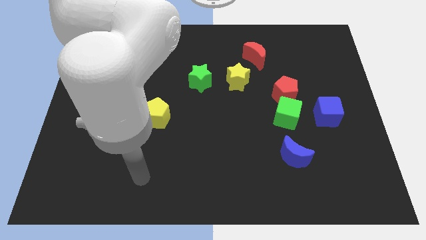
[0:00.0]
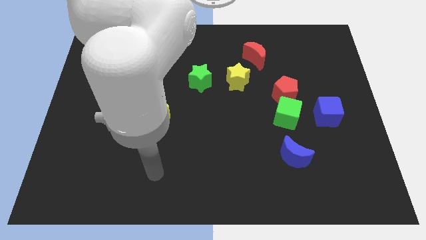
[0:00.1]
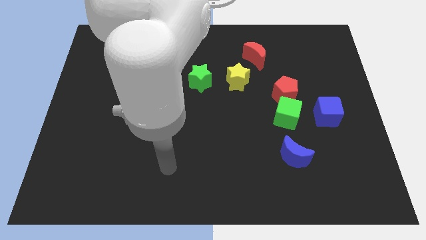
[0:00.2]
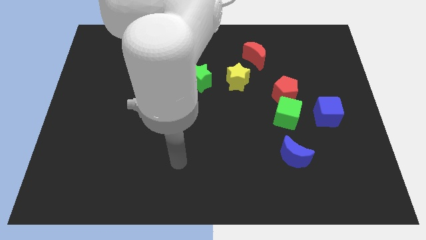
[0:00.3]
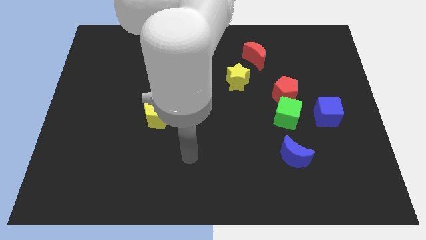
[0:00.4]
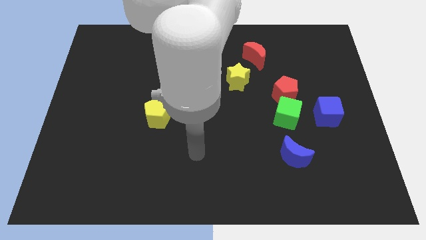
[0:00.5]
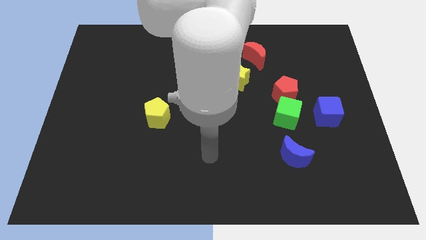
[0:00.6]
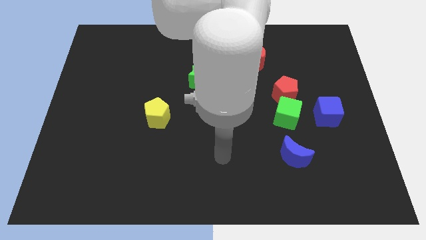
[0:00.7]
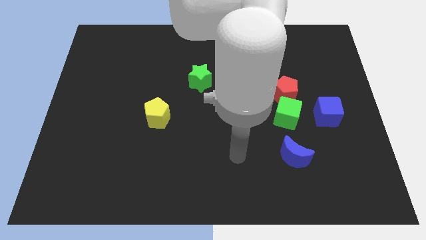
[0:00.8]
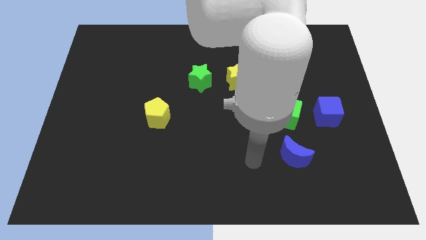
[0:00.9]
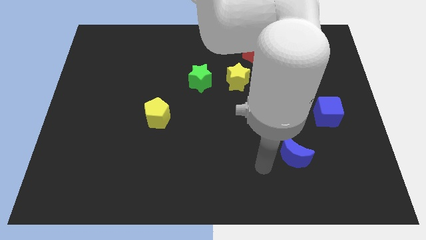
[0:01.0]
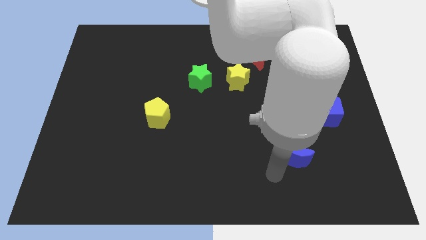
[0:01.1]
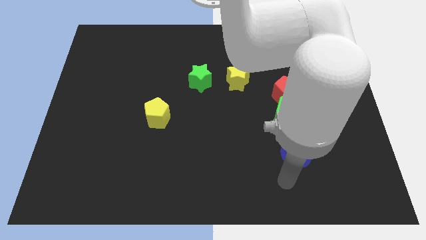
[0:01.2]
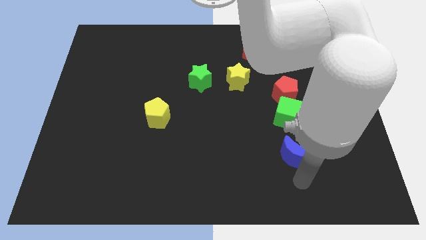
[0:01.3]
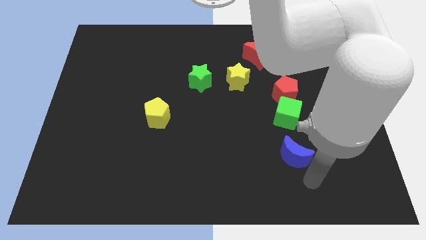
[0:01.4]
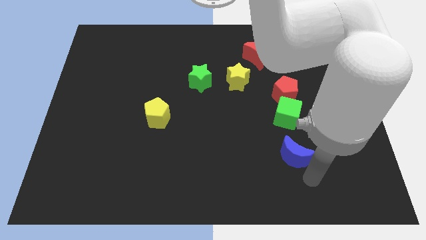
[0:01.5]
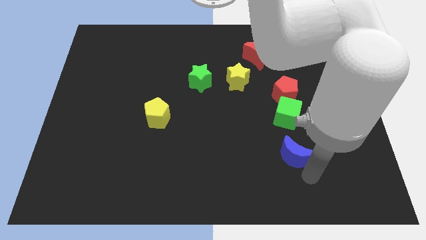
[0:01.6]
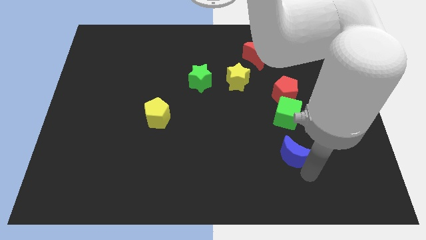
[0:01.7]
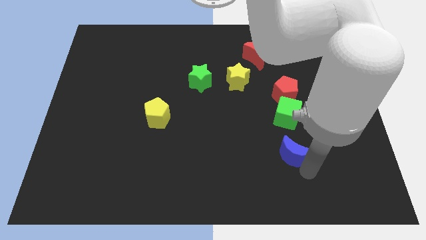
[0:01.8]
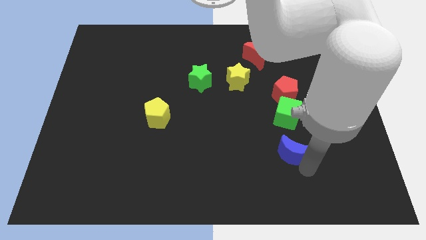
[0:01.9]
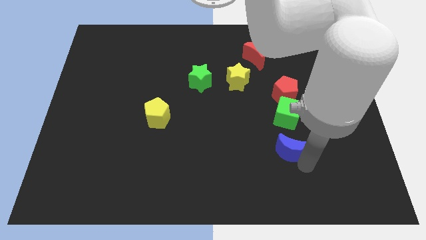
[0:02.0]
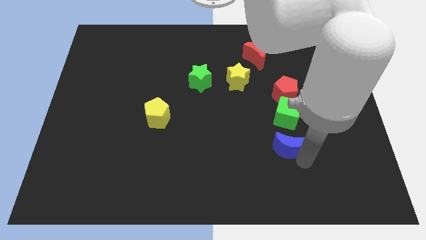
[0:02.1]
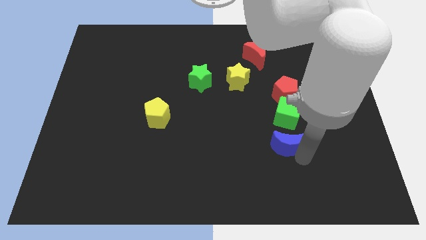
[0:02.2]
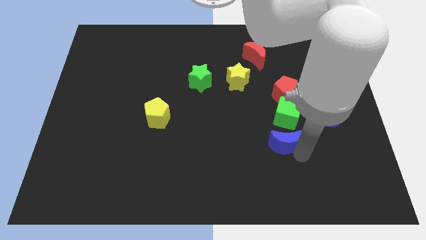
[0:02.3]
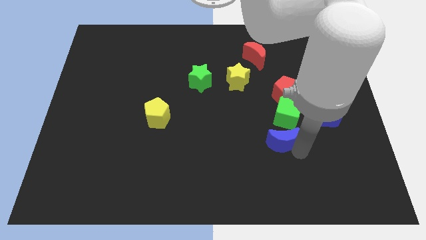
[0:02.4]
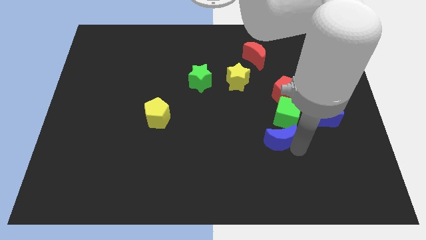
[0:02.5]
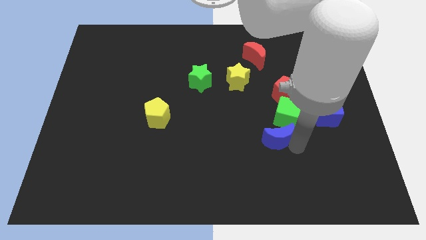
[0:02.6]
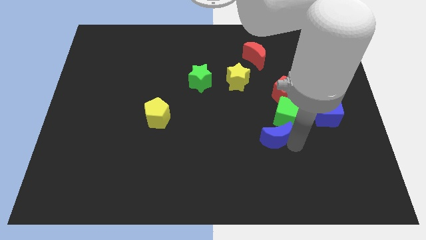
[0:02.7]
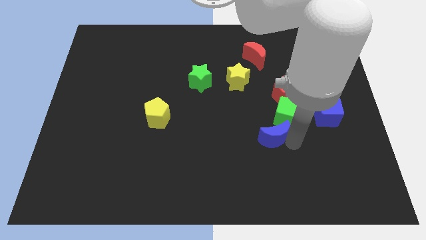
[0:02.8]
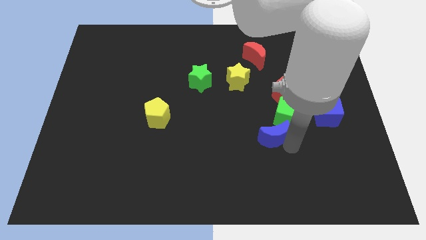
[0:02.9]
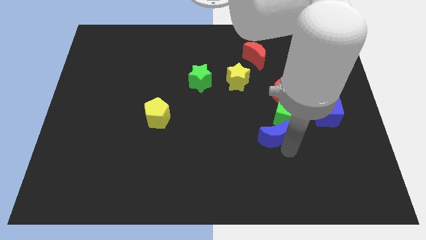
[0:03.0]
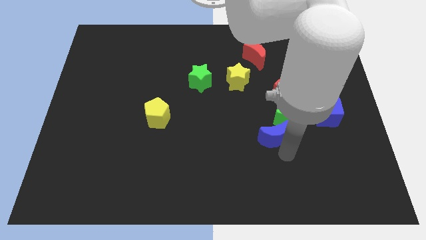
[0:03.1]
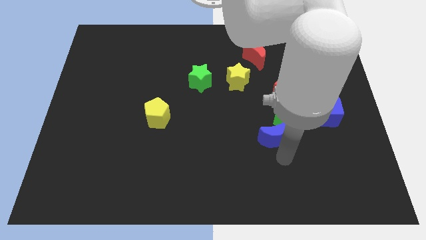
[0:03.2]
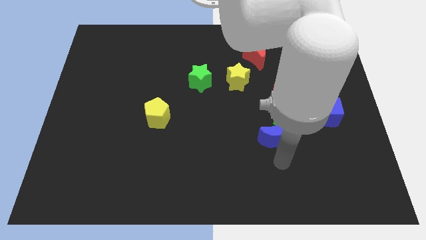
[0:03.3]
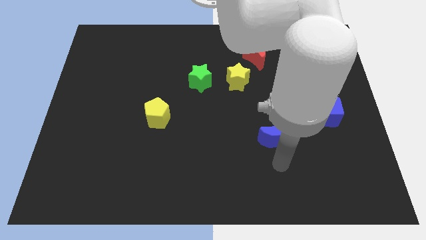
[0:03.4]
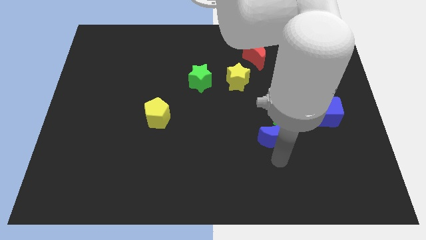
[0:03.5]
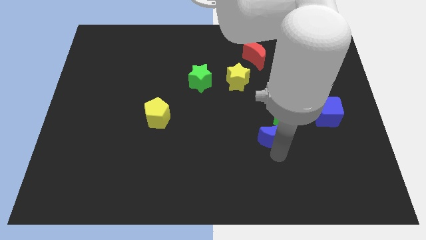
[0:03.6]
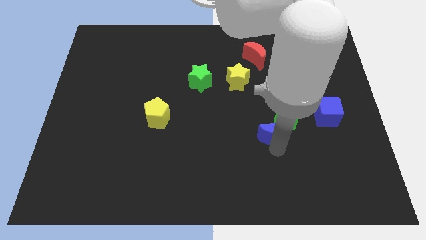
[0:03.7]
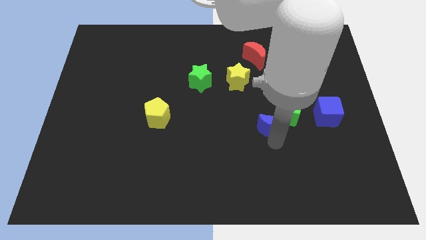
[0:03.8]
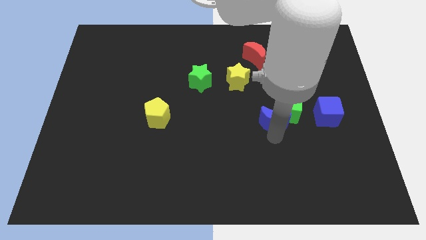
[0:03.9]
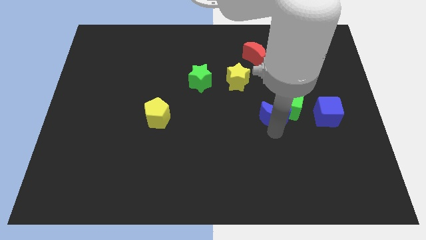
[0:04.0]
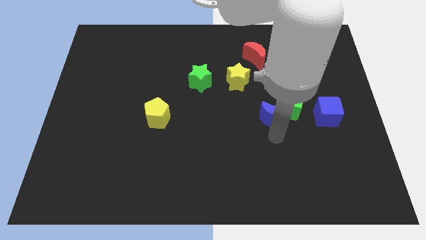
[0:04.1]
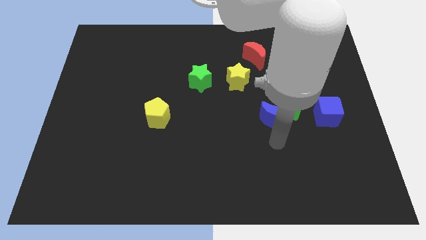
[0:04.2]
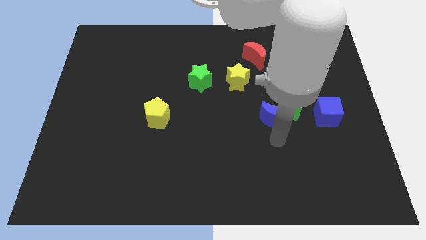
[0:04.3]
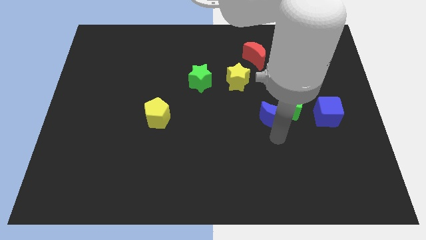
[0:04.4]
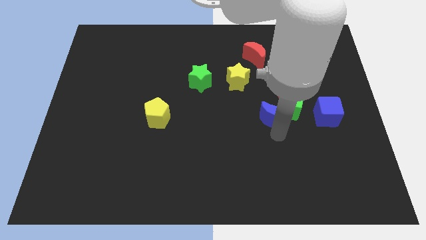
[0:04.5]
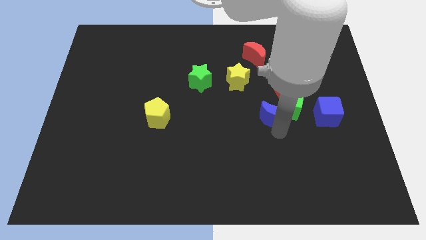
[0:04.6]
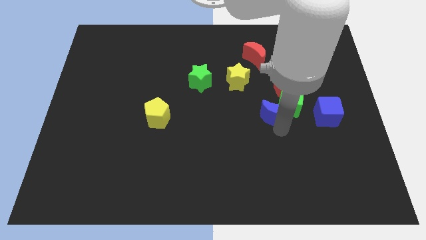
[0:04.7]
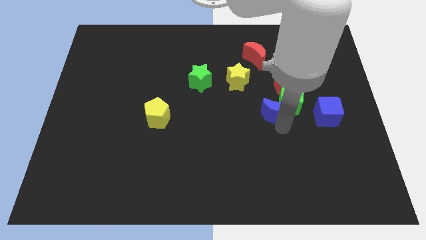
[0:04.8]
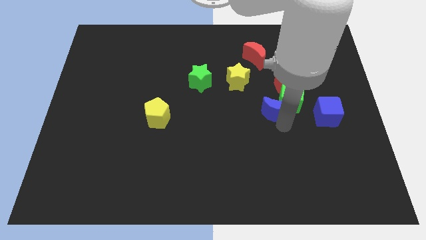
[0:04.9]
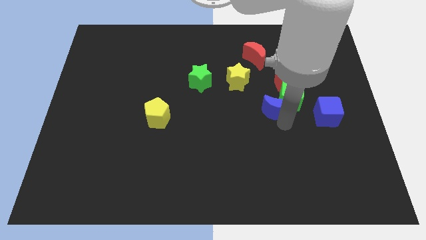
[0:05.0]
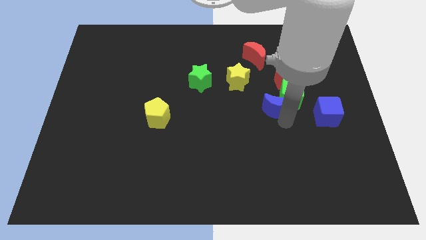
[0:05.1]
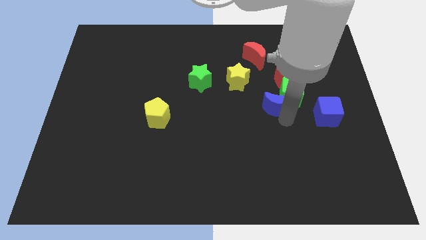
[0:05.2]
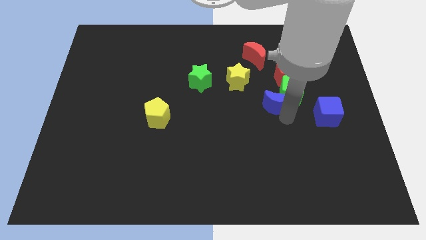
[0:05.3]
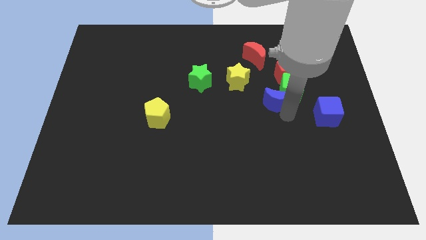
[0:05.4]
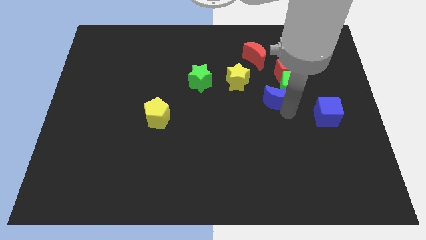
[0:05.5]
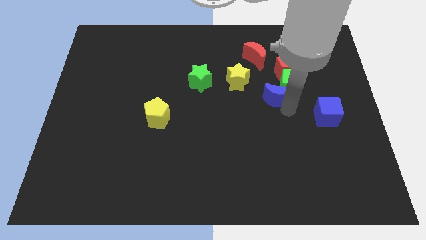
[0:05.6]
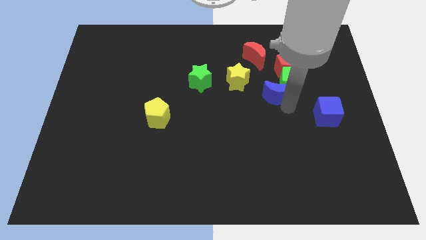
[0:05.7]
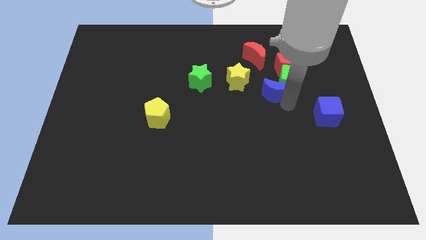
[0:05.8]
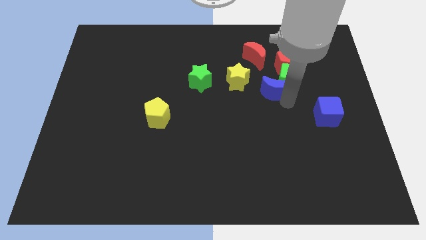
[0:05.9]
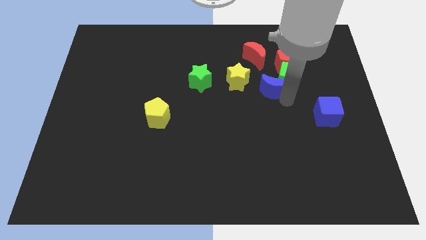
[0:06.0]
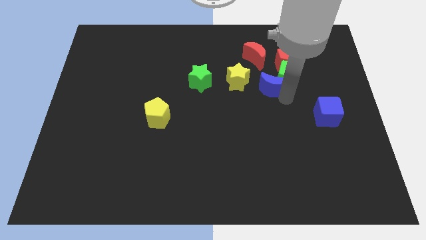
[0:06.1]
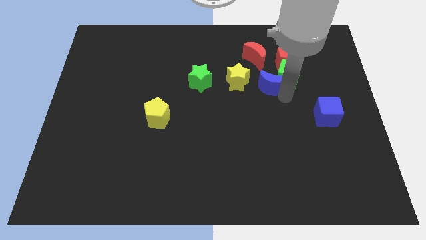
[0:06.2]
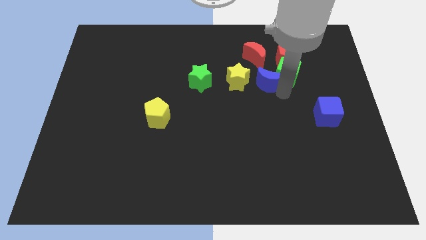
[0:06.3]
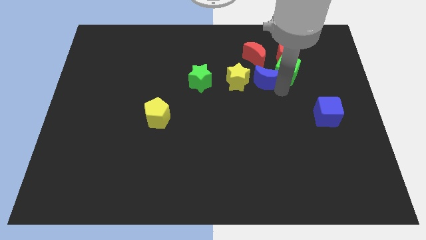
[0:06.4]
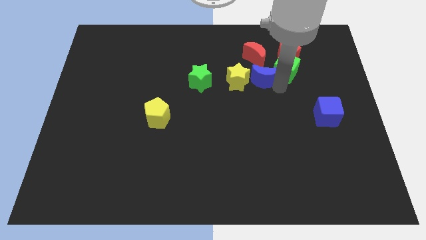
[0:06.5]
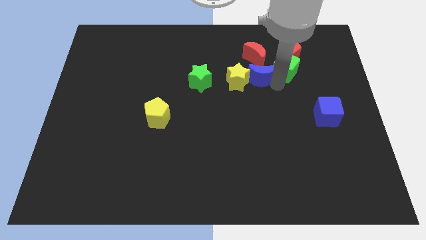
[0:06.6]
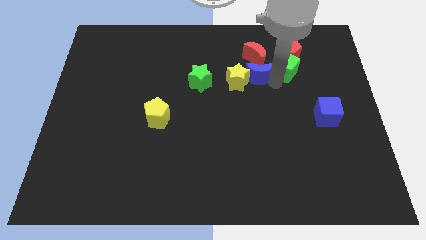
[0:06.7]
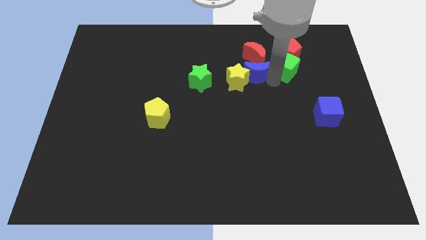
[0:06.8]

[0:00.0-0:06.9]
push the blue moon towards the red moon

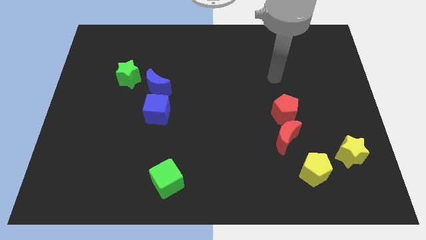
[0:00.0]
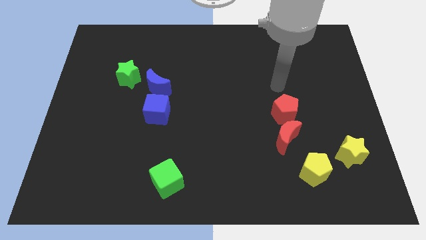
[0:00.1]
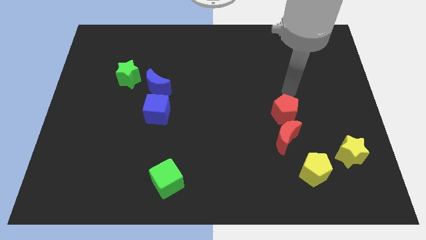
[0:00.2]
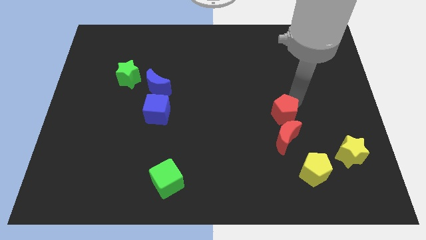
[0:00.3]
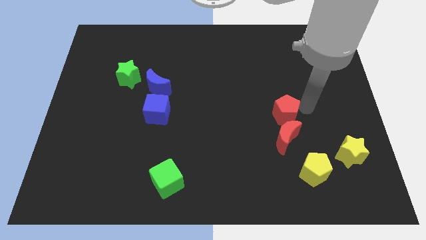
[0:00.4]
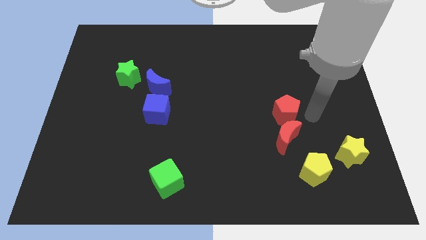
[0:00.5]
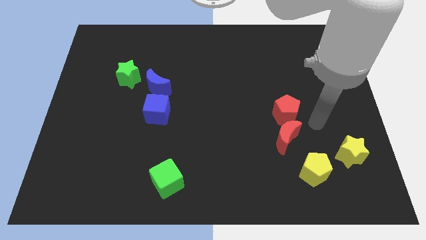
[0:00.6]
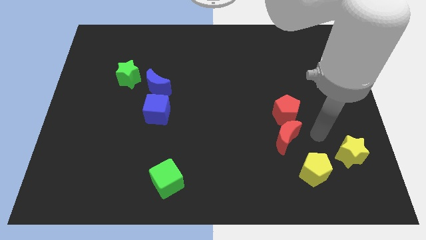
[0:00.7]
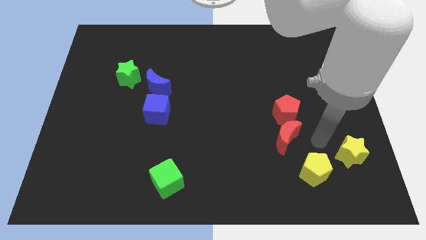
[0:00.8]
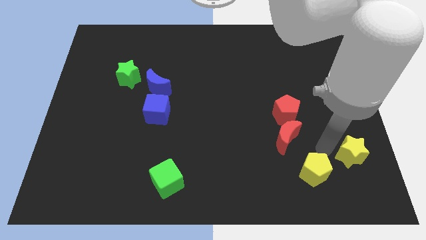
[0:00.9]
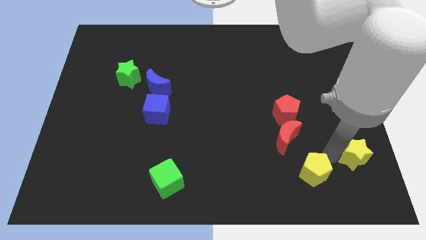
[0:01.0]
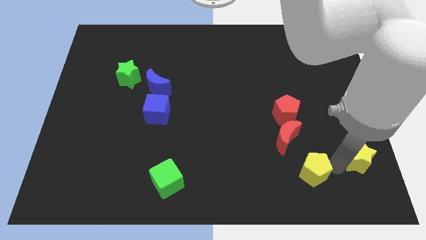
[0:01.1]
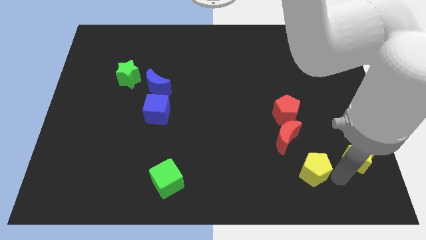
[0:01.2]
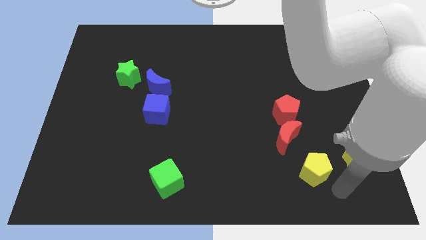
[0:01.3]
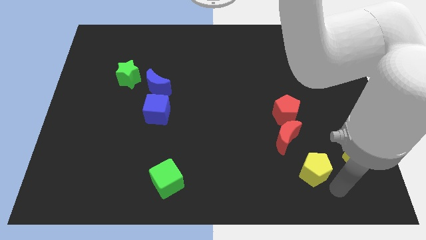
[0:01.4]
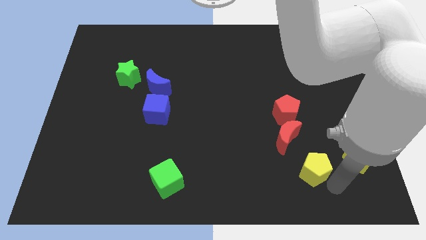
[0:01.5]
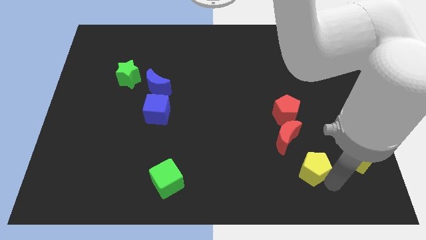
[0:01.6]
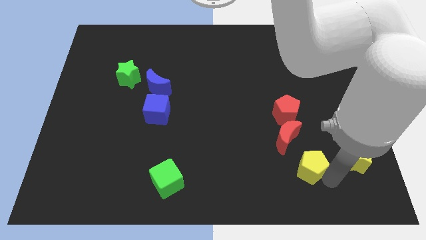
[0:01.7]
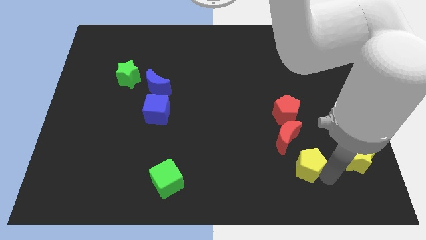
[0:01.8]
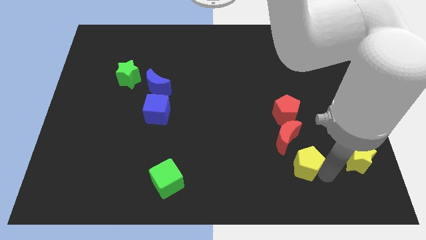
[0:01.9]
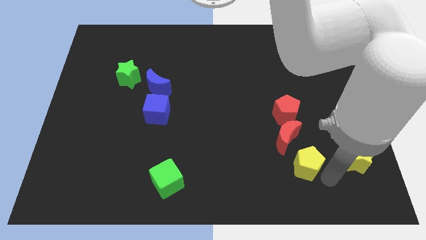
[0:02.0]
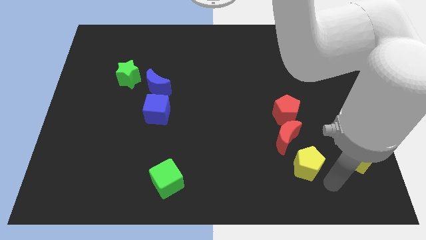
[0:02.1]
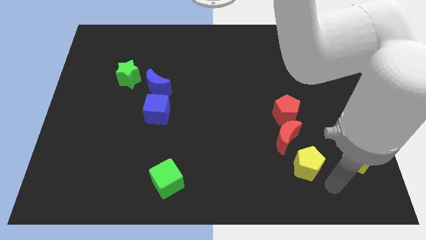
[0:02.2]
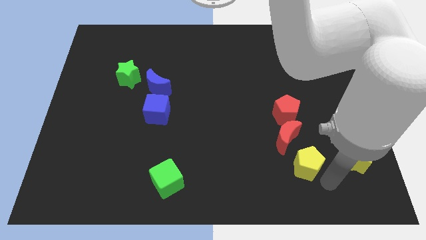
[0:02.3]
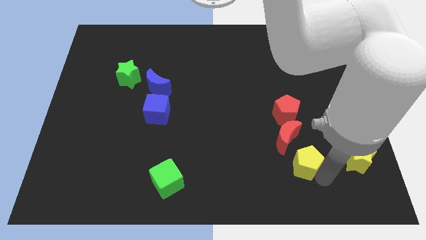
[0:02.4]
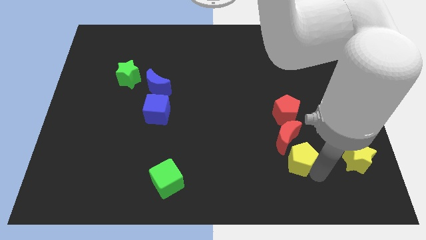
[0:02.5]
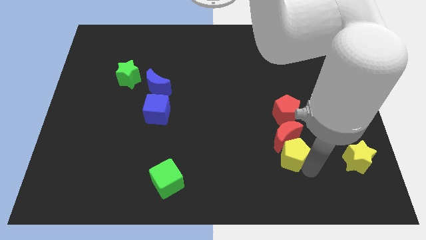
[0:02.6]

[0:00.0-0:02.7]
put the yellow pentagon to the red moon
